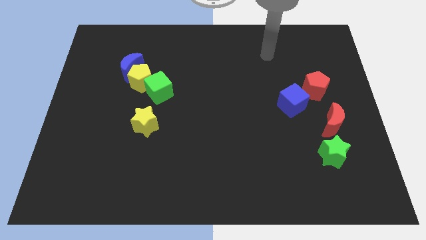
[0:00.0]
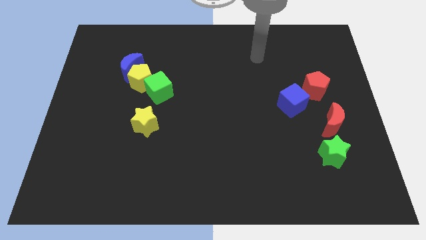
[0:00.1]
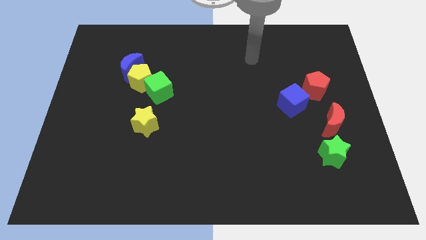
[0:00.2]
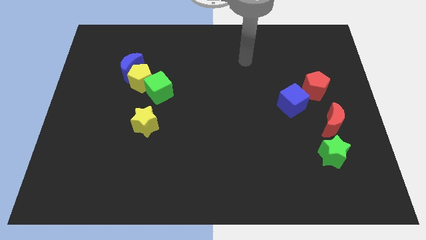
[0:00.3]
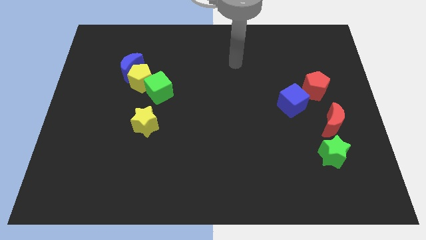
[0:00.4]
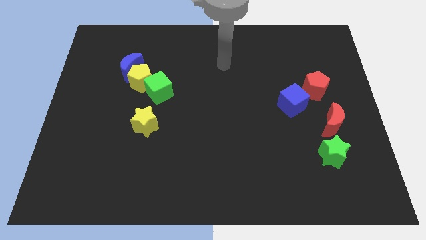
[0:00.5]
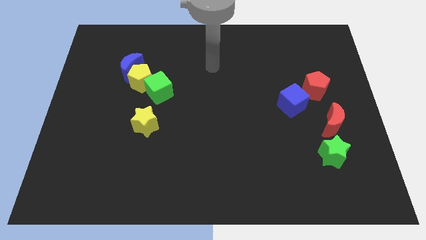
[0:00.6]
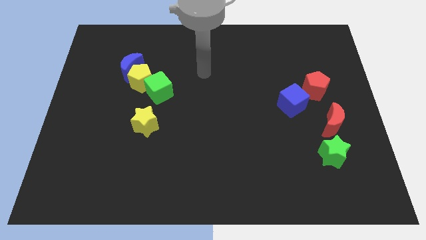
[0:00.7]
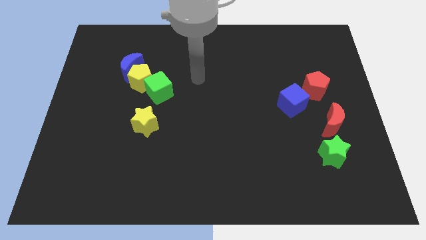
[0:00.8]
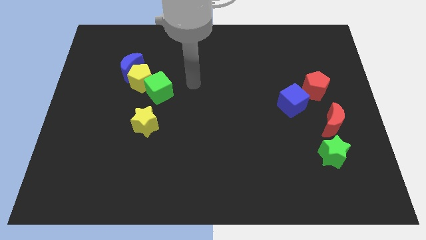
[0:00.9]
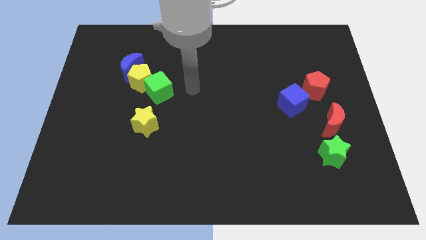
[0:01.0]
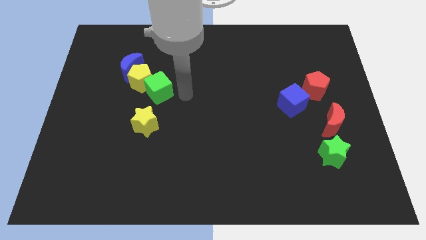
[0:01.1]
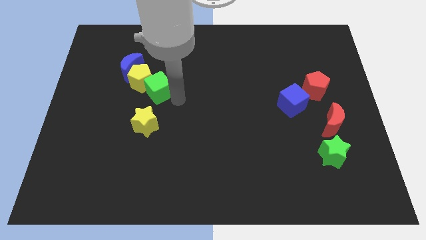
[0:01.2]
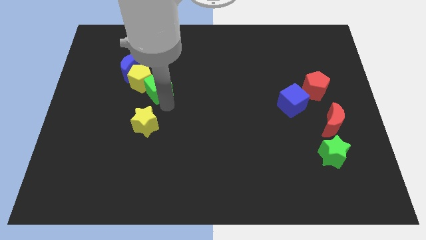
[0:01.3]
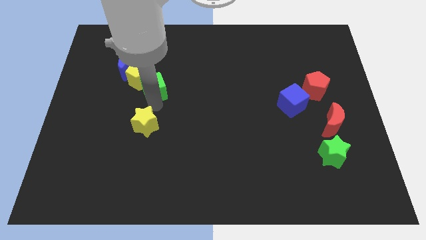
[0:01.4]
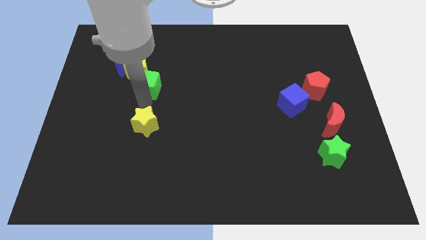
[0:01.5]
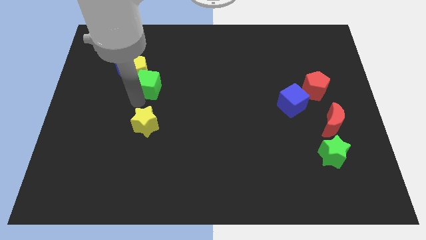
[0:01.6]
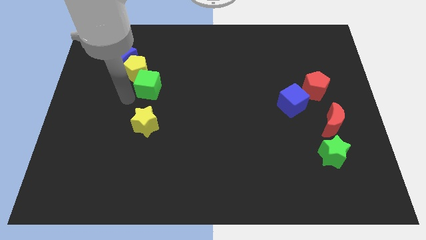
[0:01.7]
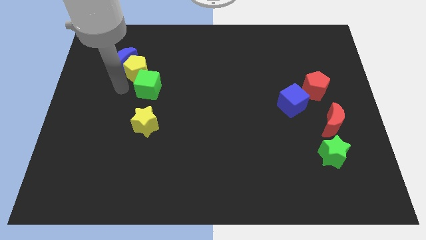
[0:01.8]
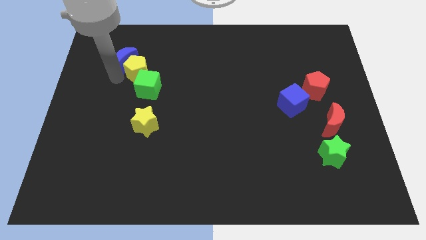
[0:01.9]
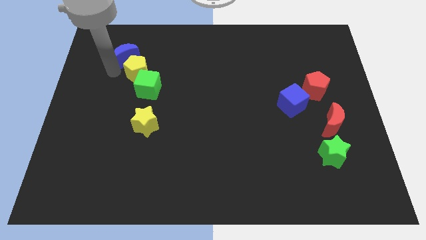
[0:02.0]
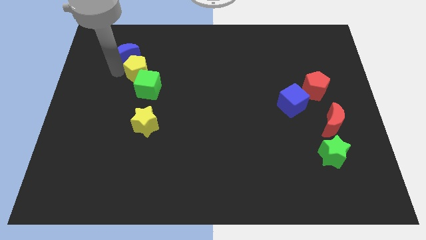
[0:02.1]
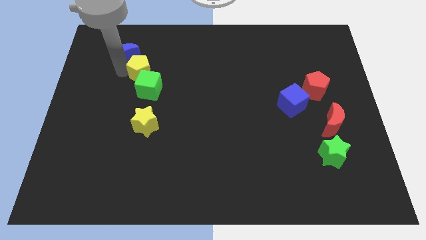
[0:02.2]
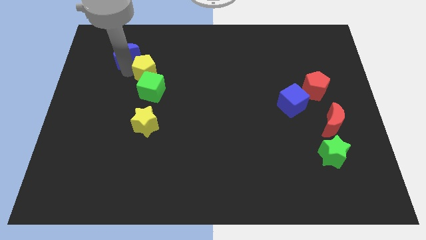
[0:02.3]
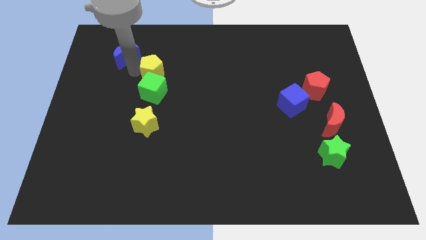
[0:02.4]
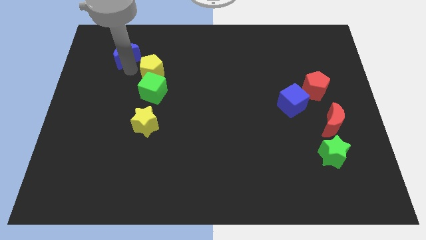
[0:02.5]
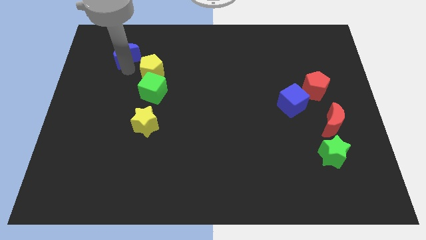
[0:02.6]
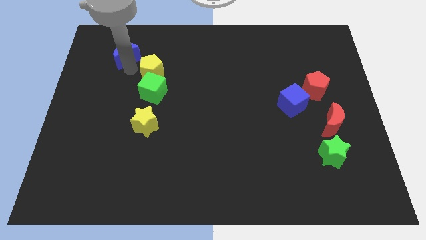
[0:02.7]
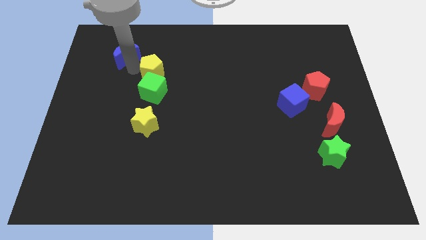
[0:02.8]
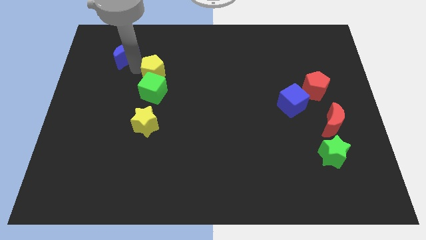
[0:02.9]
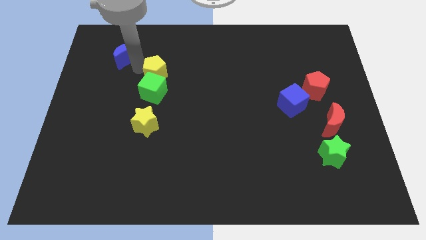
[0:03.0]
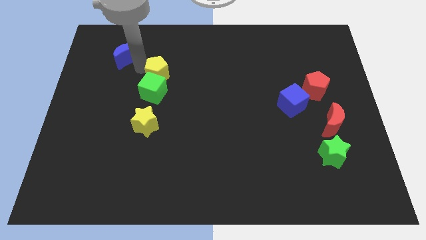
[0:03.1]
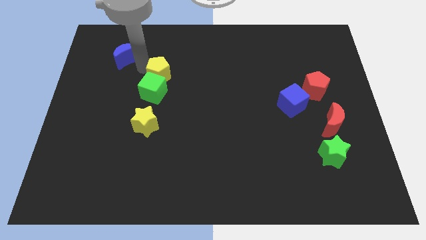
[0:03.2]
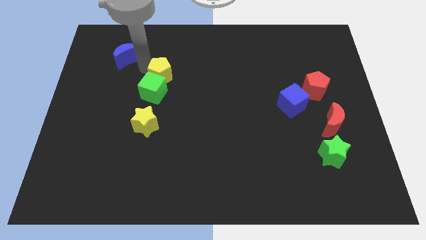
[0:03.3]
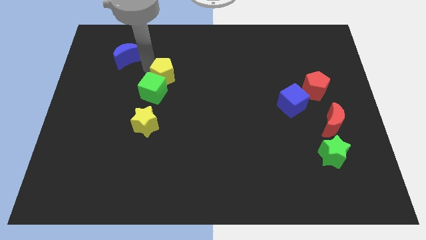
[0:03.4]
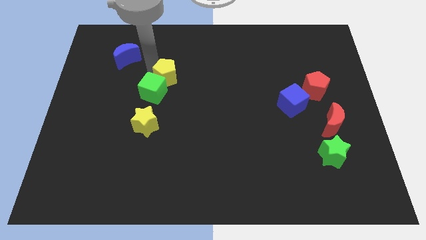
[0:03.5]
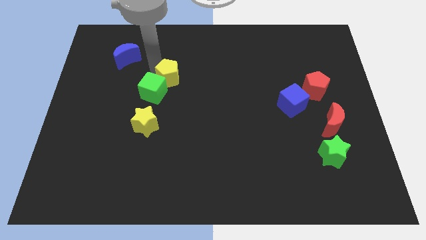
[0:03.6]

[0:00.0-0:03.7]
slide the yellow pentagon to the right slightly

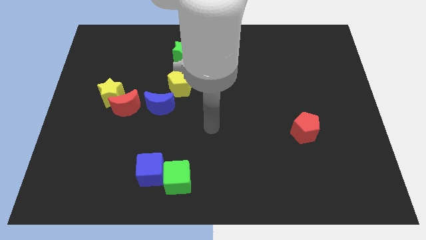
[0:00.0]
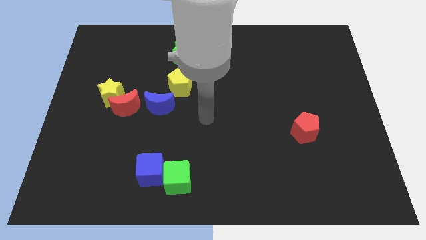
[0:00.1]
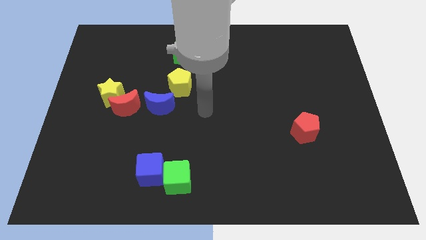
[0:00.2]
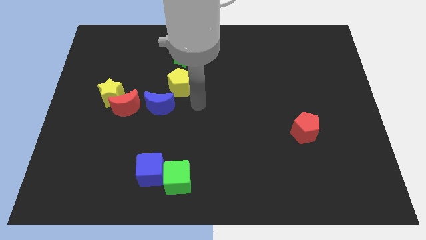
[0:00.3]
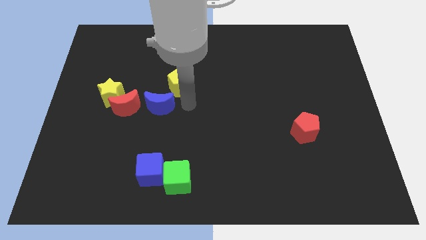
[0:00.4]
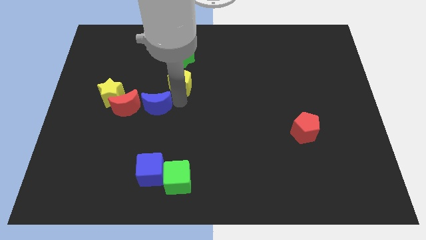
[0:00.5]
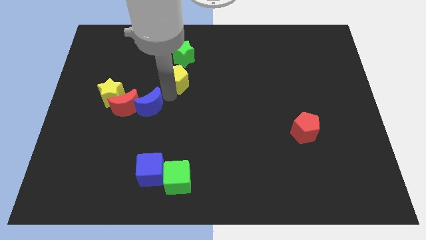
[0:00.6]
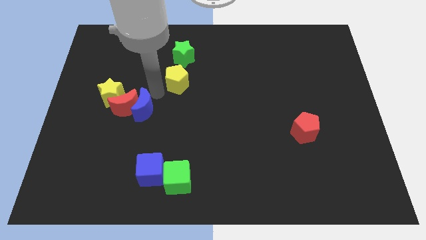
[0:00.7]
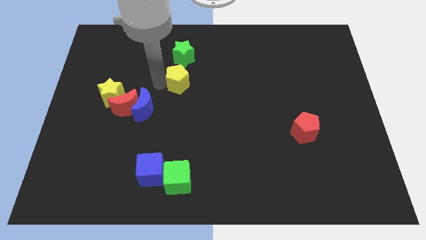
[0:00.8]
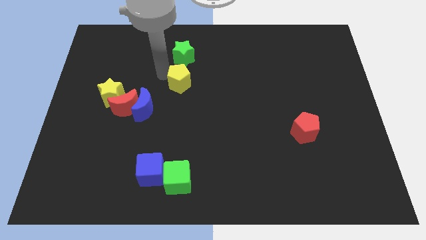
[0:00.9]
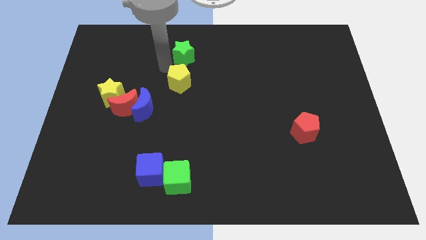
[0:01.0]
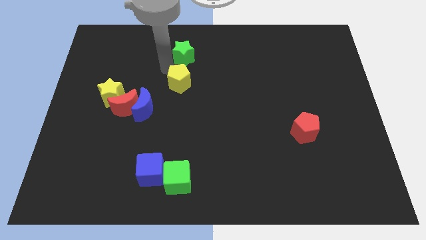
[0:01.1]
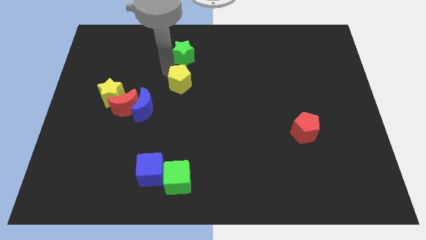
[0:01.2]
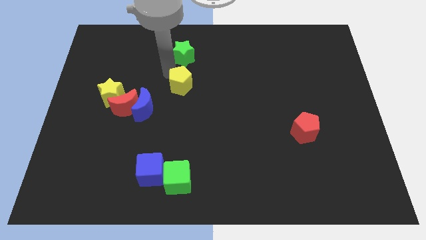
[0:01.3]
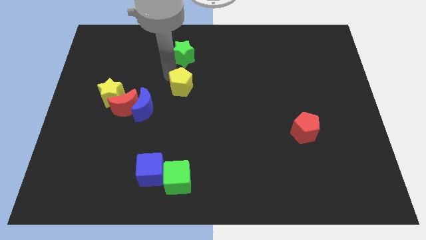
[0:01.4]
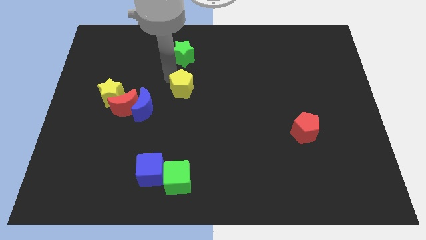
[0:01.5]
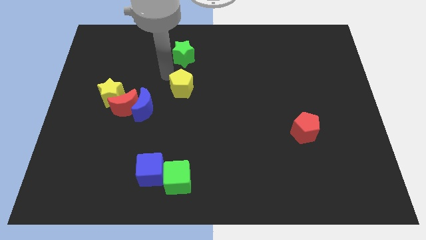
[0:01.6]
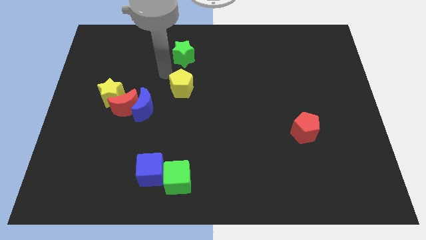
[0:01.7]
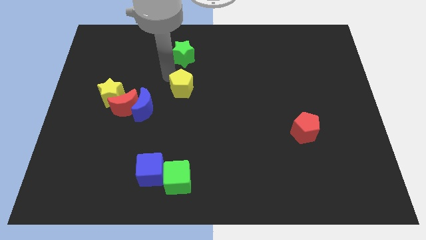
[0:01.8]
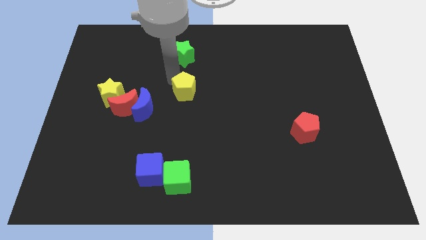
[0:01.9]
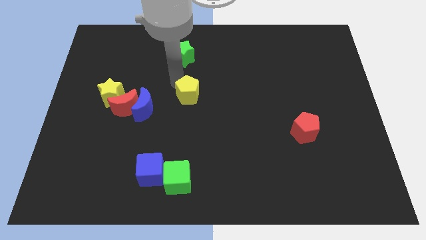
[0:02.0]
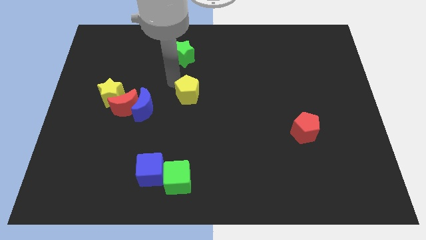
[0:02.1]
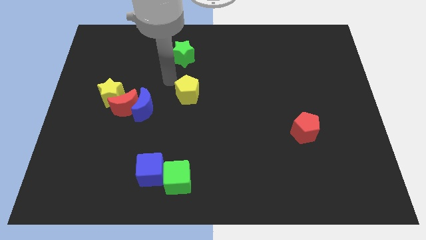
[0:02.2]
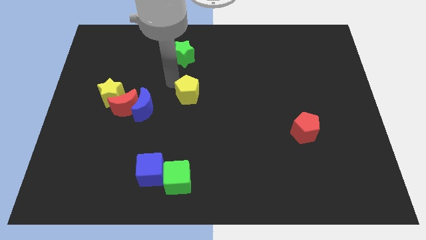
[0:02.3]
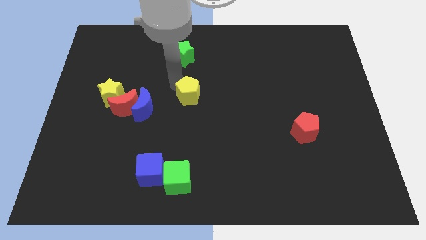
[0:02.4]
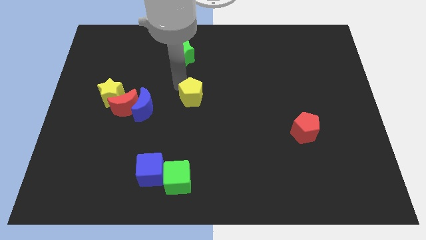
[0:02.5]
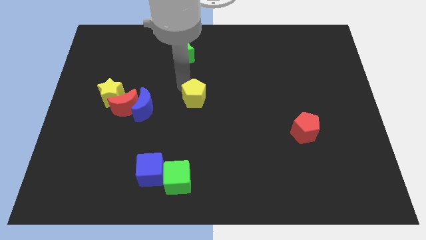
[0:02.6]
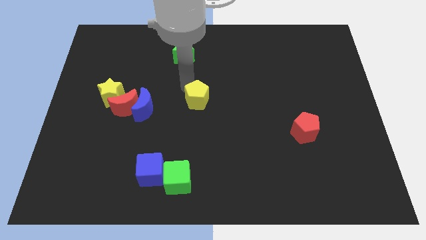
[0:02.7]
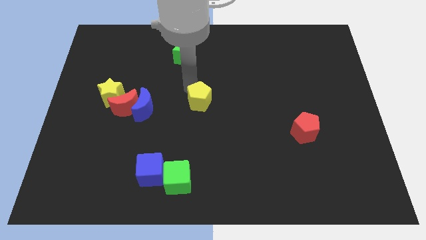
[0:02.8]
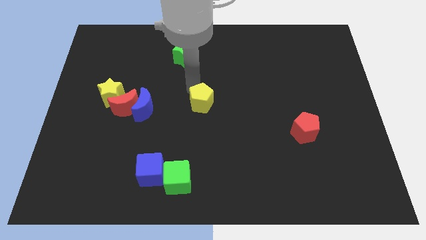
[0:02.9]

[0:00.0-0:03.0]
slide the yellow pentagon somewhat down and then right

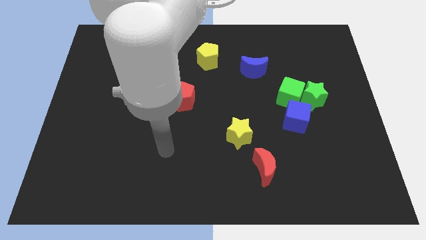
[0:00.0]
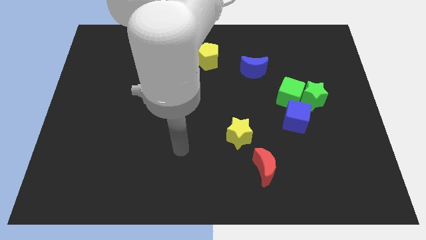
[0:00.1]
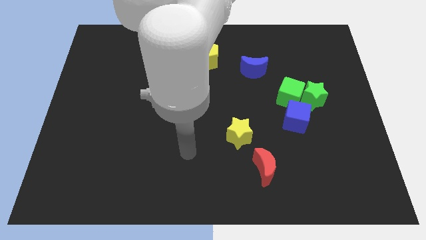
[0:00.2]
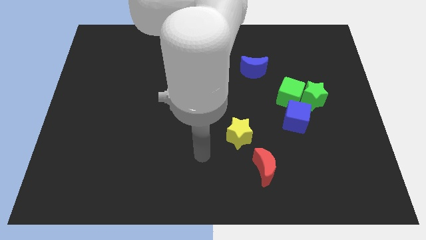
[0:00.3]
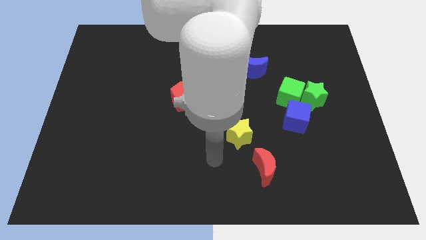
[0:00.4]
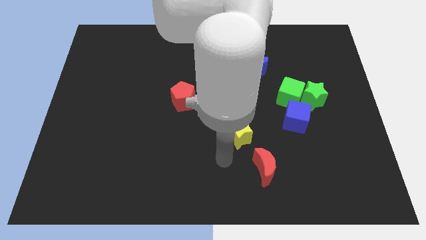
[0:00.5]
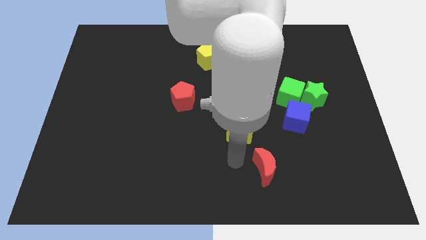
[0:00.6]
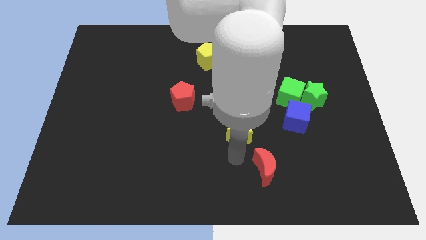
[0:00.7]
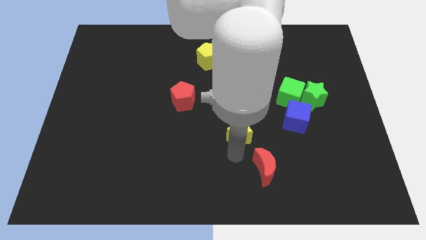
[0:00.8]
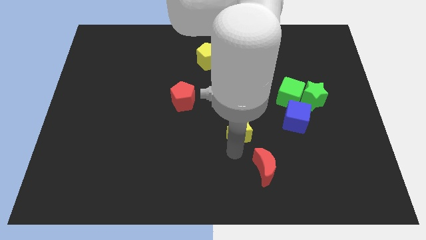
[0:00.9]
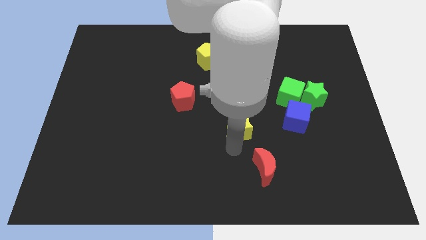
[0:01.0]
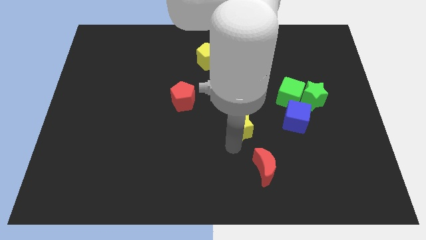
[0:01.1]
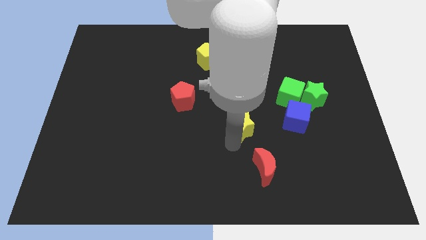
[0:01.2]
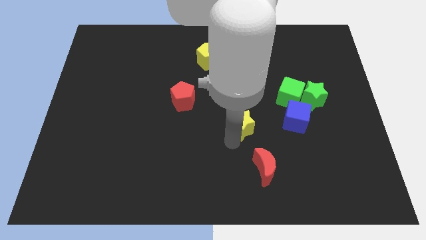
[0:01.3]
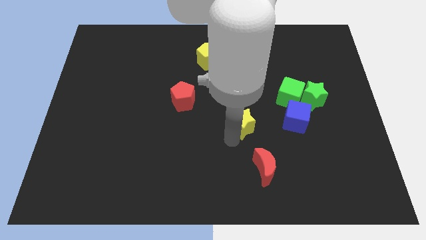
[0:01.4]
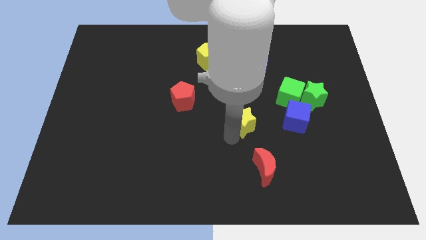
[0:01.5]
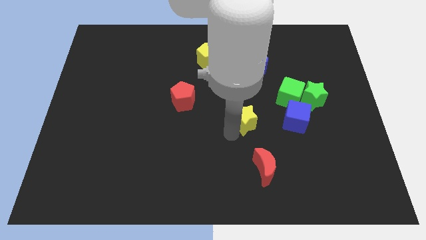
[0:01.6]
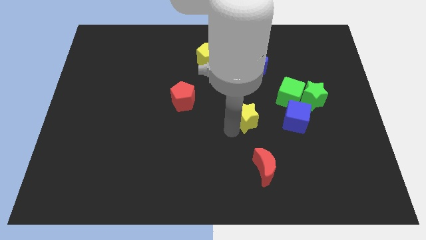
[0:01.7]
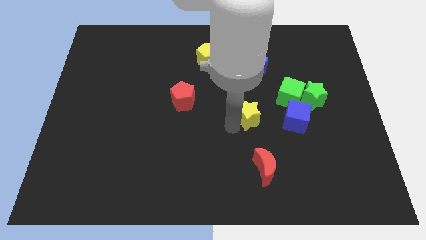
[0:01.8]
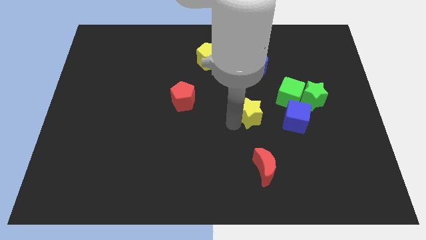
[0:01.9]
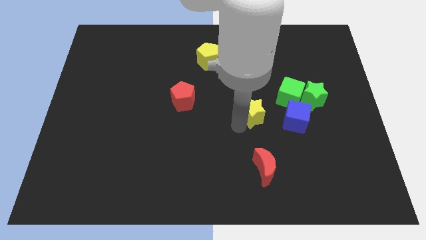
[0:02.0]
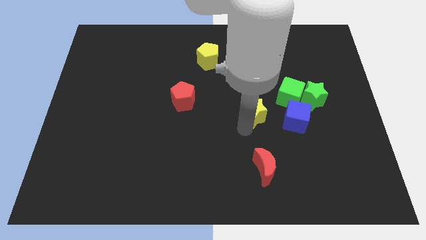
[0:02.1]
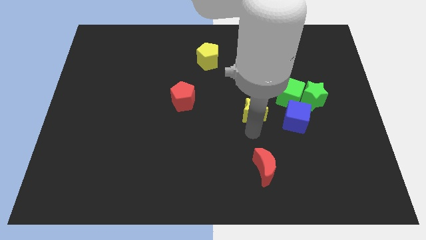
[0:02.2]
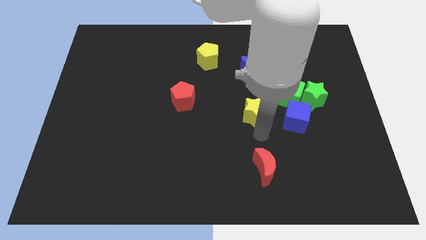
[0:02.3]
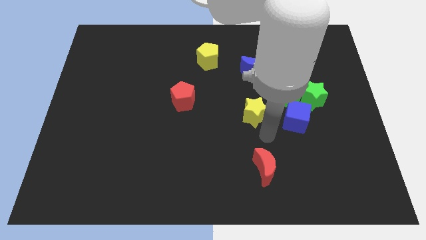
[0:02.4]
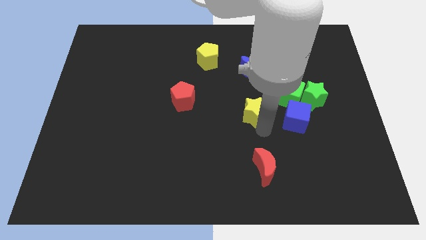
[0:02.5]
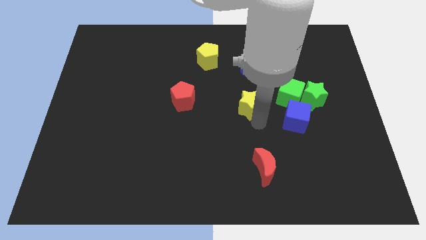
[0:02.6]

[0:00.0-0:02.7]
slightly slide the yellow star up
